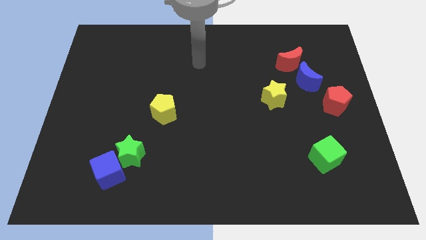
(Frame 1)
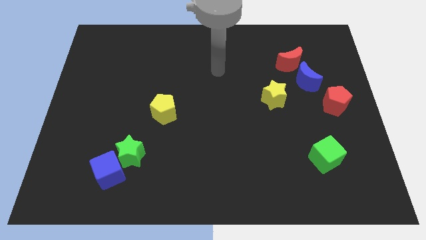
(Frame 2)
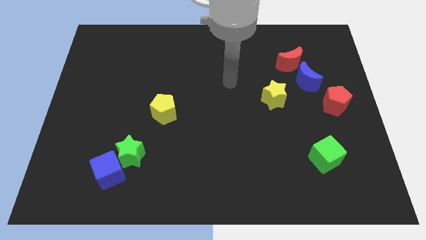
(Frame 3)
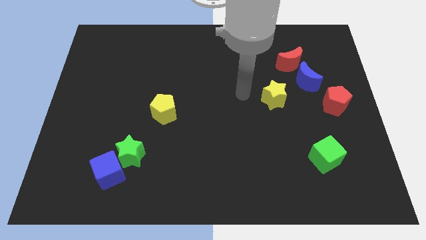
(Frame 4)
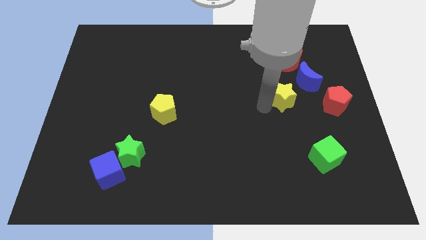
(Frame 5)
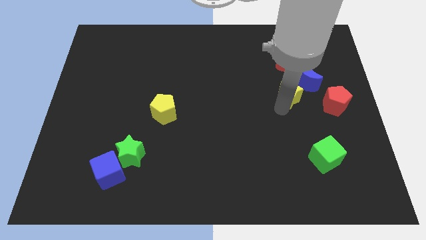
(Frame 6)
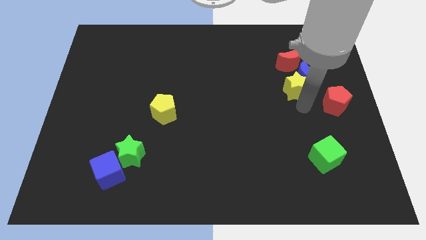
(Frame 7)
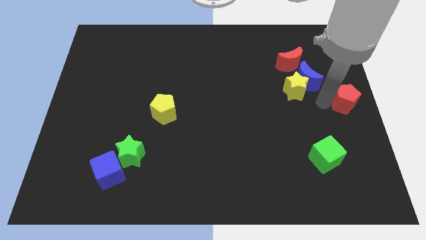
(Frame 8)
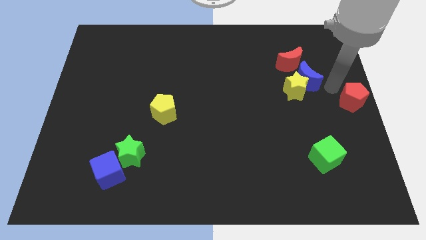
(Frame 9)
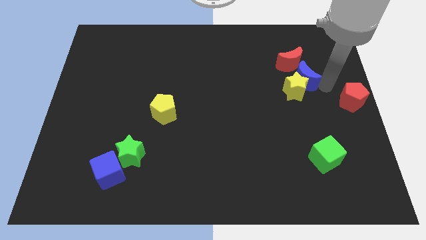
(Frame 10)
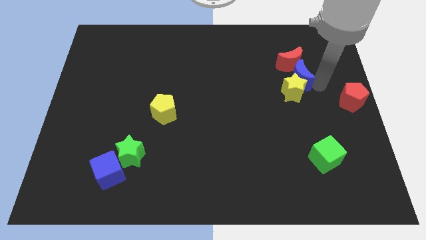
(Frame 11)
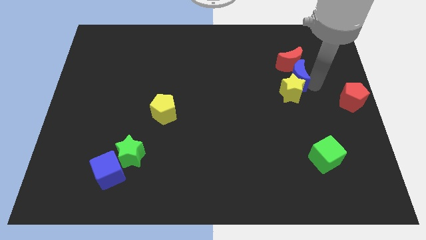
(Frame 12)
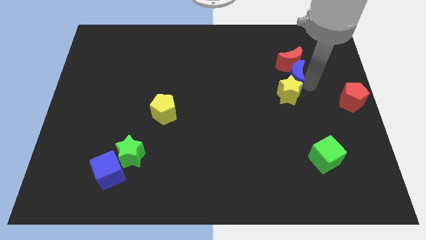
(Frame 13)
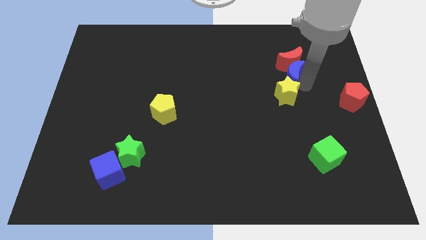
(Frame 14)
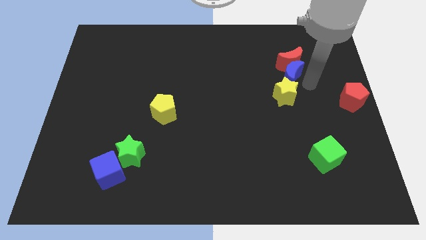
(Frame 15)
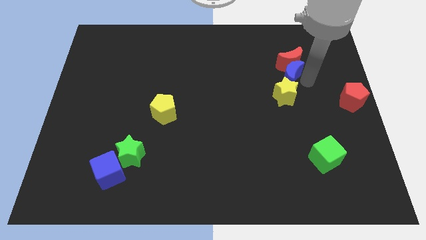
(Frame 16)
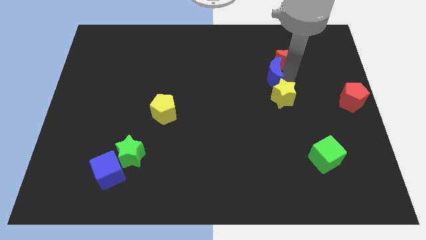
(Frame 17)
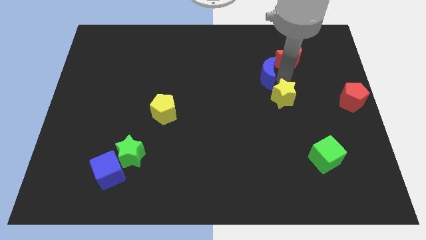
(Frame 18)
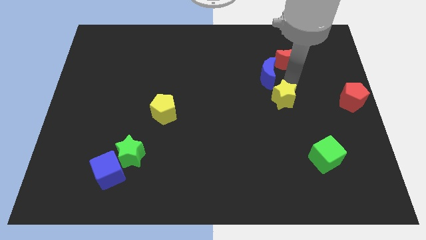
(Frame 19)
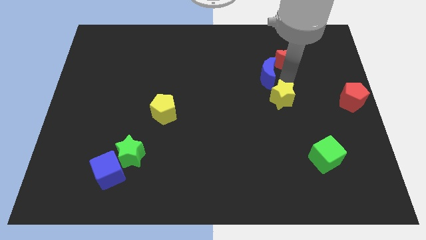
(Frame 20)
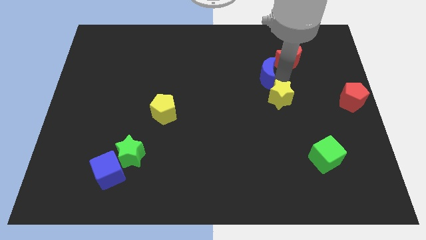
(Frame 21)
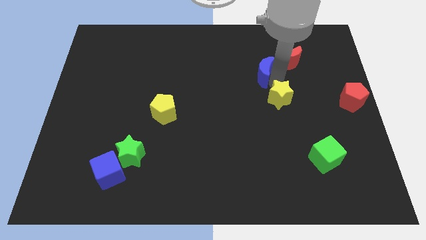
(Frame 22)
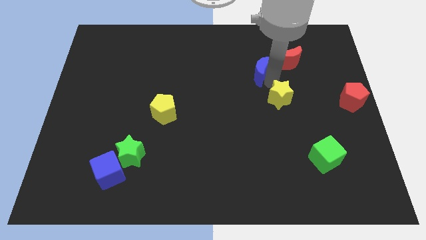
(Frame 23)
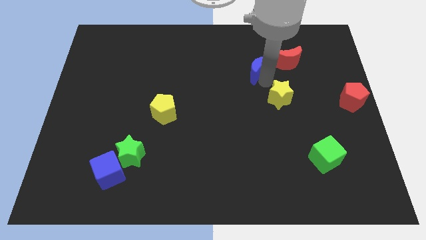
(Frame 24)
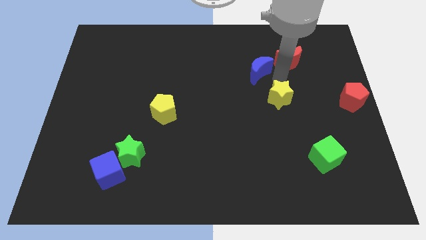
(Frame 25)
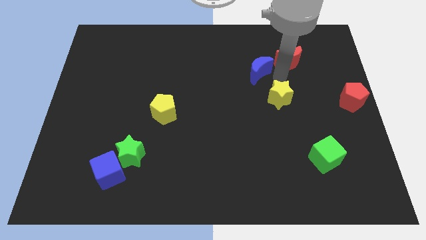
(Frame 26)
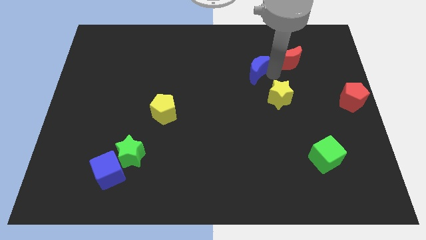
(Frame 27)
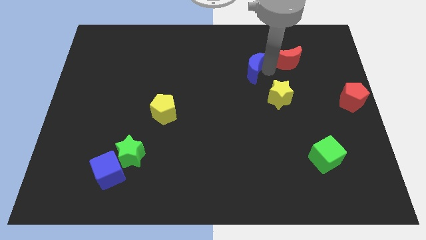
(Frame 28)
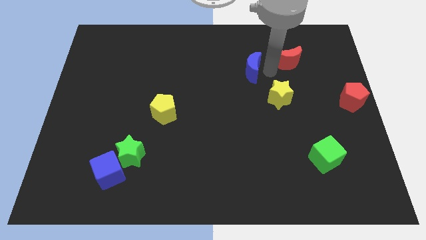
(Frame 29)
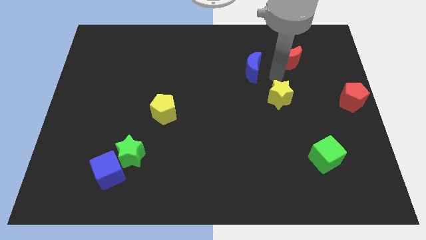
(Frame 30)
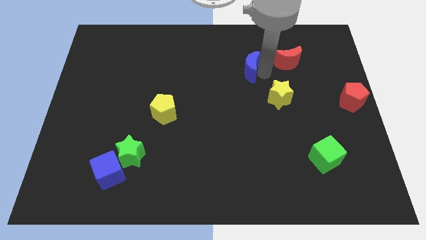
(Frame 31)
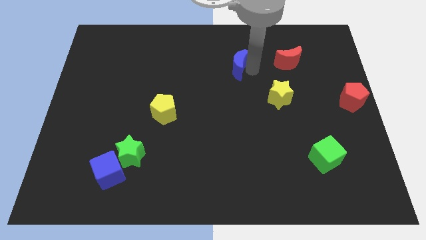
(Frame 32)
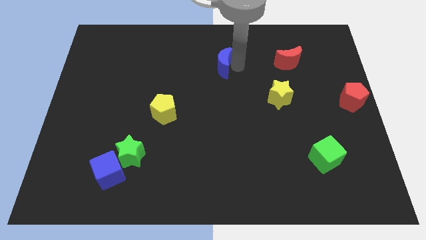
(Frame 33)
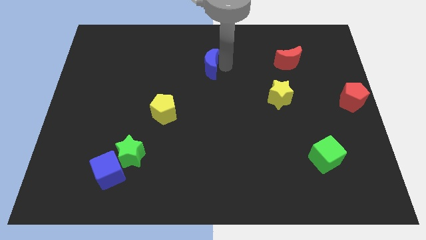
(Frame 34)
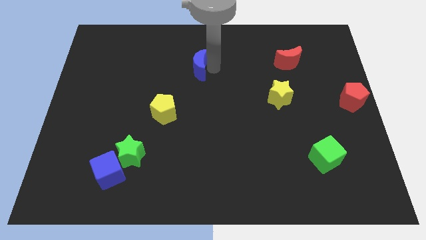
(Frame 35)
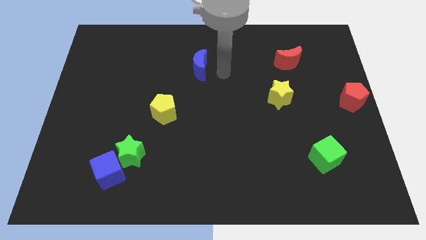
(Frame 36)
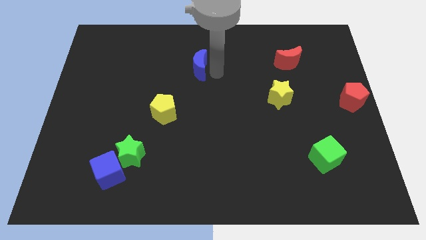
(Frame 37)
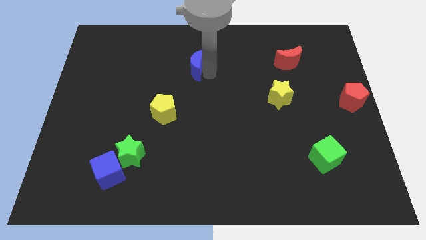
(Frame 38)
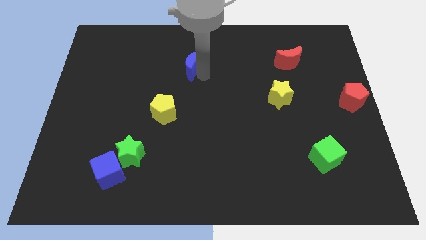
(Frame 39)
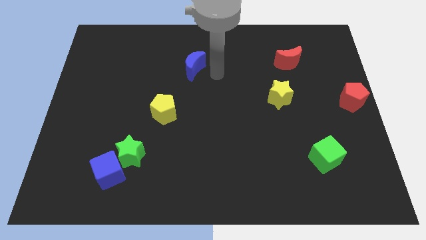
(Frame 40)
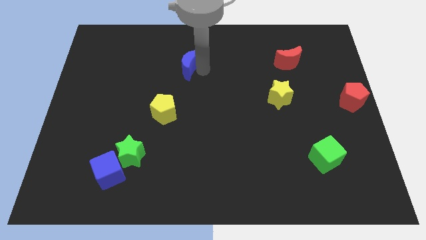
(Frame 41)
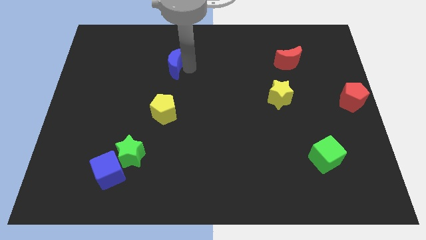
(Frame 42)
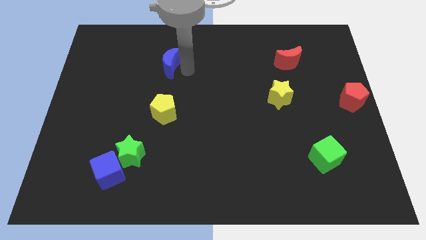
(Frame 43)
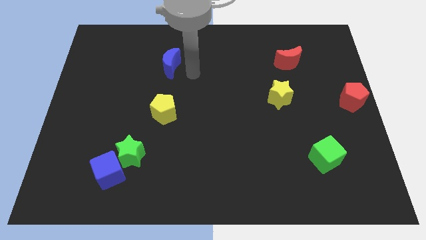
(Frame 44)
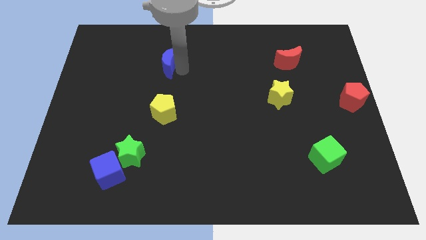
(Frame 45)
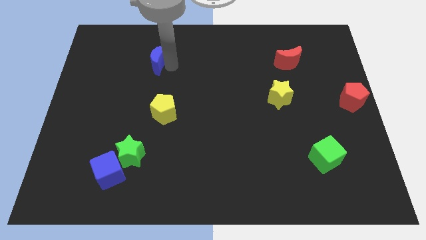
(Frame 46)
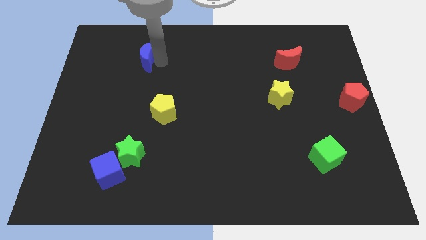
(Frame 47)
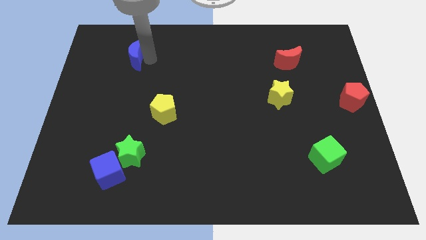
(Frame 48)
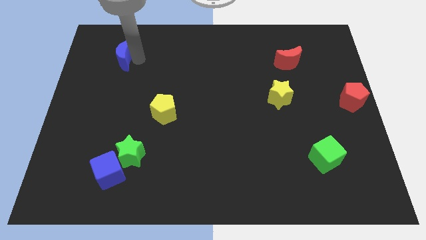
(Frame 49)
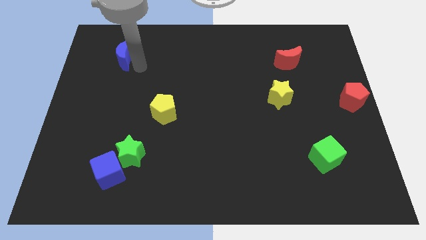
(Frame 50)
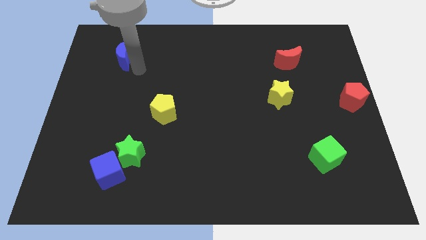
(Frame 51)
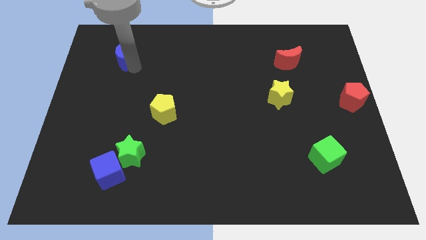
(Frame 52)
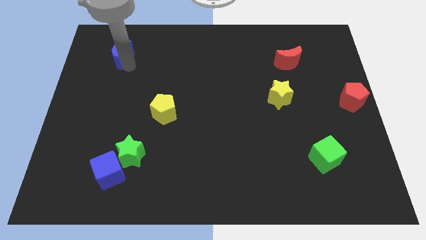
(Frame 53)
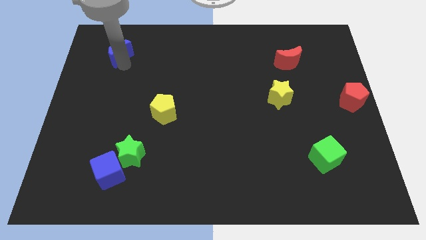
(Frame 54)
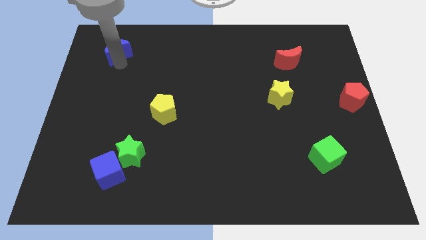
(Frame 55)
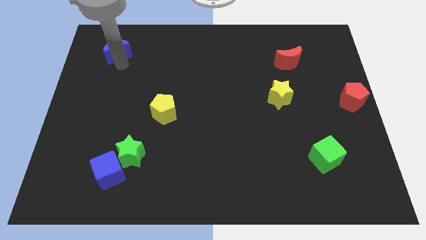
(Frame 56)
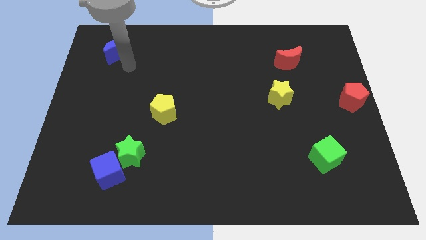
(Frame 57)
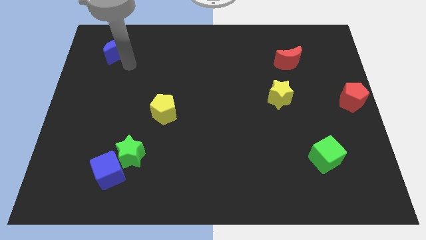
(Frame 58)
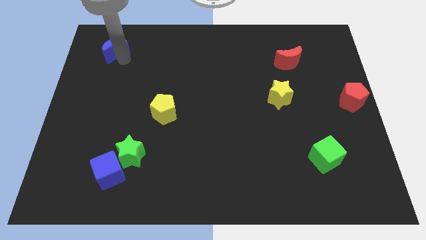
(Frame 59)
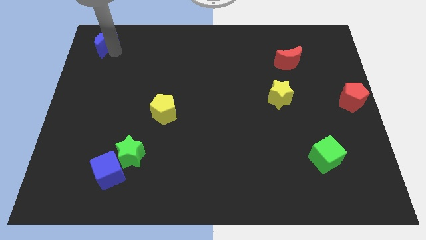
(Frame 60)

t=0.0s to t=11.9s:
slide the blue moon to the top left of the board
